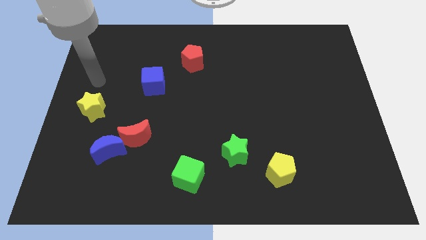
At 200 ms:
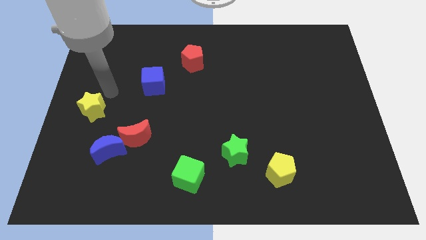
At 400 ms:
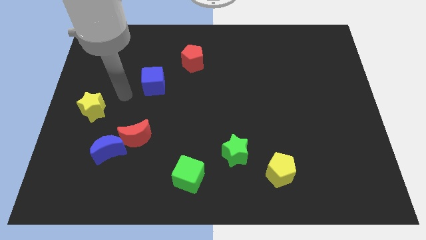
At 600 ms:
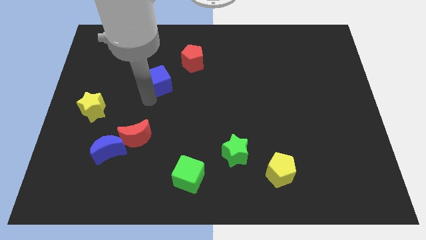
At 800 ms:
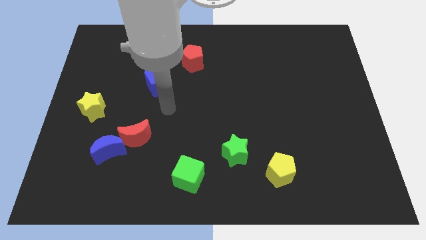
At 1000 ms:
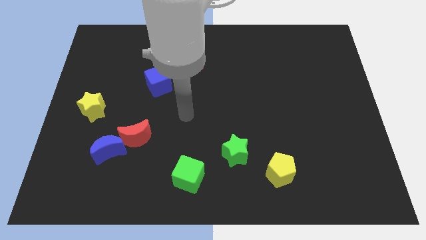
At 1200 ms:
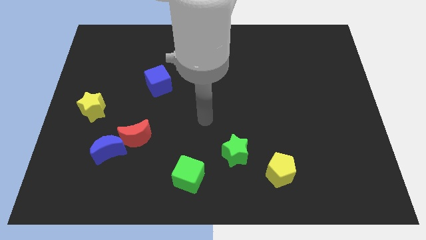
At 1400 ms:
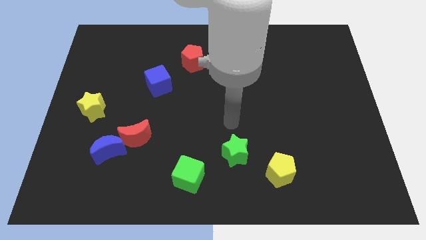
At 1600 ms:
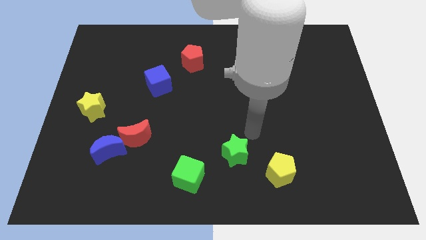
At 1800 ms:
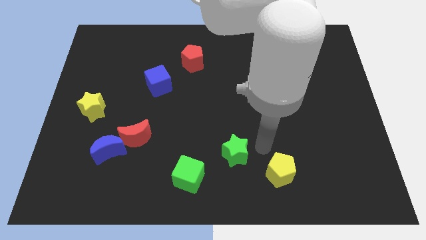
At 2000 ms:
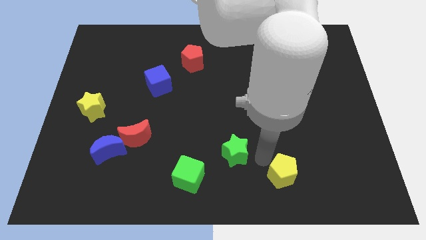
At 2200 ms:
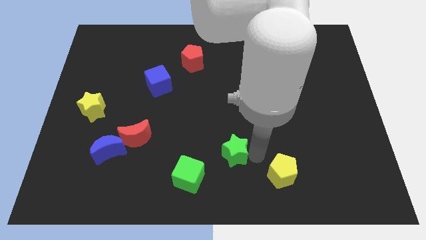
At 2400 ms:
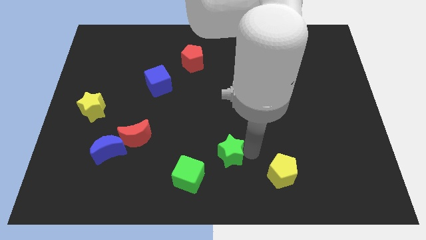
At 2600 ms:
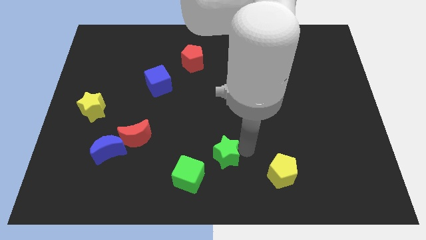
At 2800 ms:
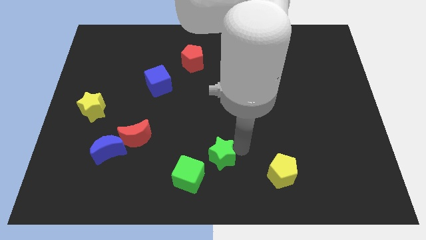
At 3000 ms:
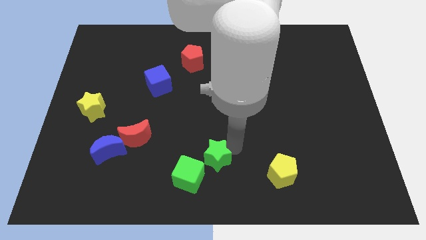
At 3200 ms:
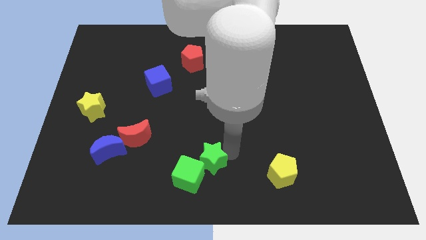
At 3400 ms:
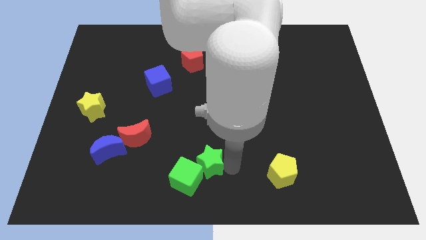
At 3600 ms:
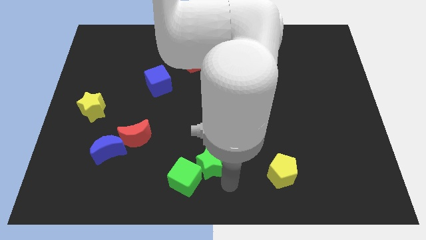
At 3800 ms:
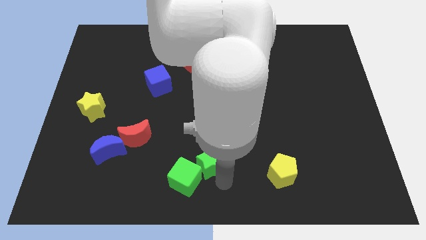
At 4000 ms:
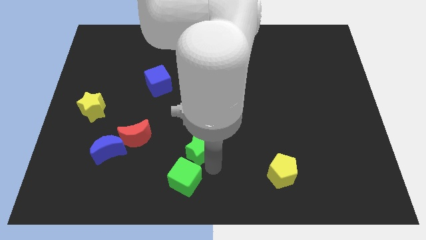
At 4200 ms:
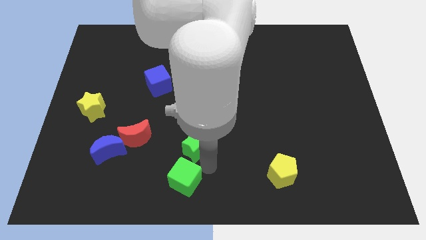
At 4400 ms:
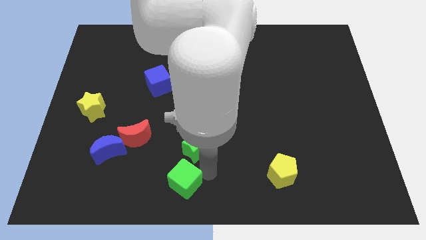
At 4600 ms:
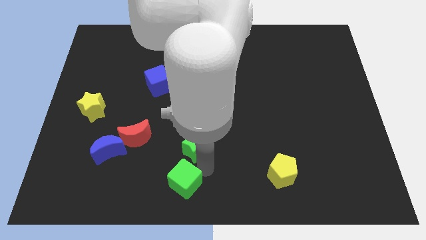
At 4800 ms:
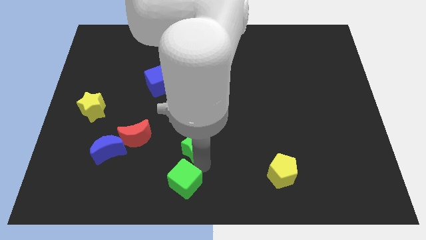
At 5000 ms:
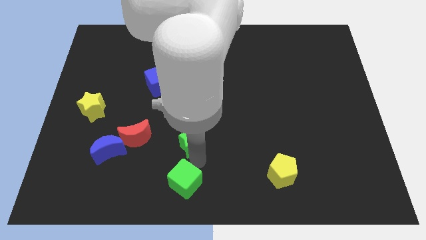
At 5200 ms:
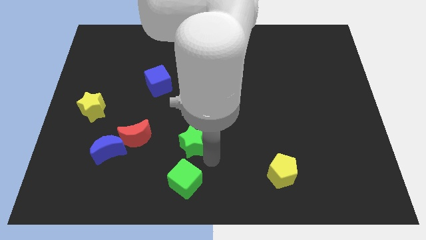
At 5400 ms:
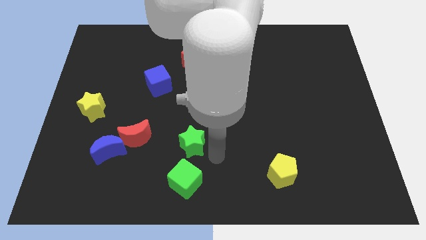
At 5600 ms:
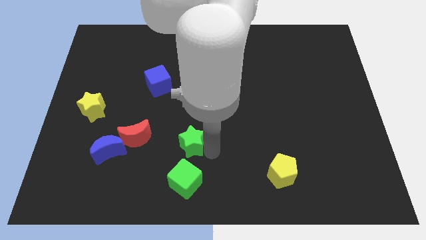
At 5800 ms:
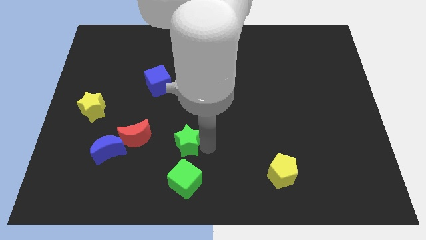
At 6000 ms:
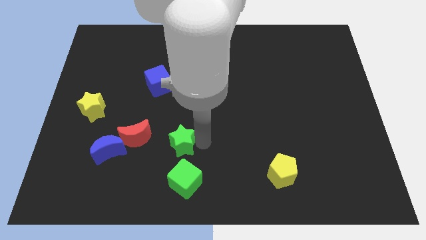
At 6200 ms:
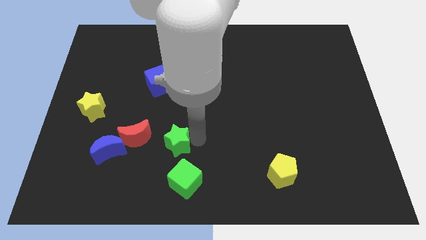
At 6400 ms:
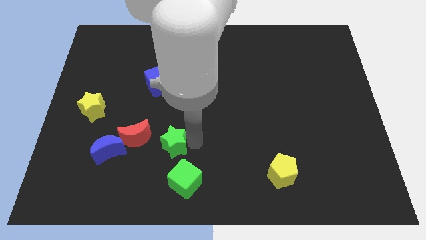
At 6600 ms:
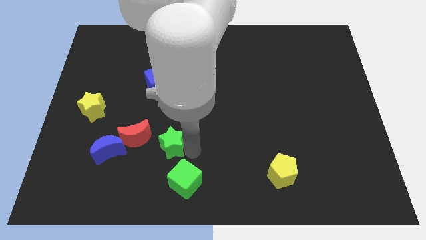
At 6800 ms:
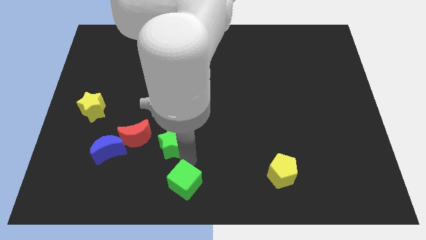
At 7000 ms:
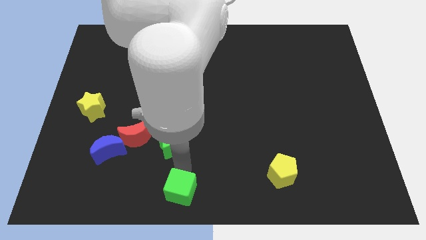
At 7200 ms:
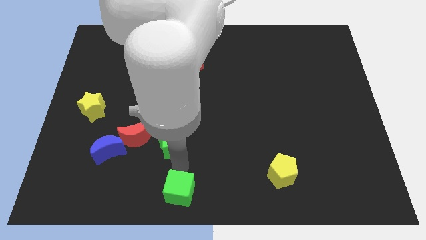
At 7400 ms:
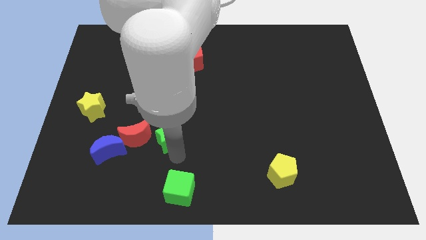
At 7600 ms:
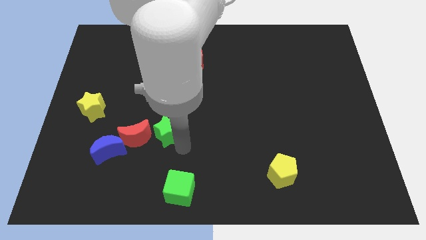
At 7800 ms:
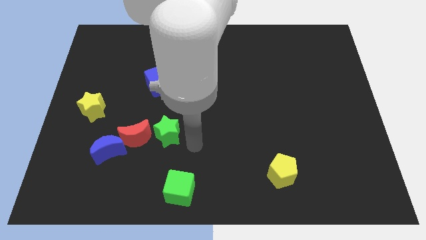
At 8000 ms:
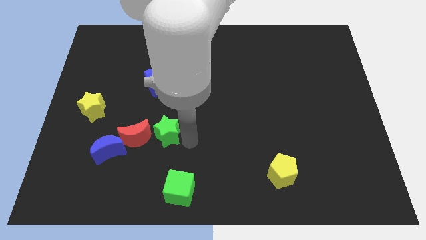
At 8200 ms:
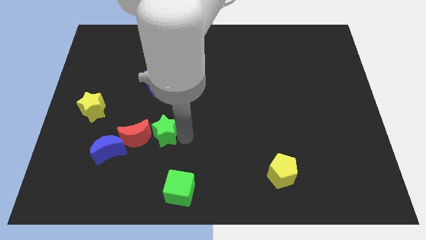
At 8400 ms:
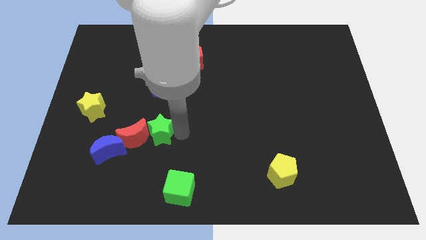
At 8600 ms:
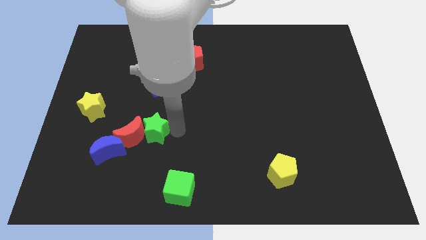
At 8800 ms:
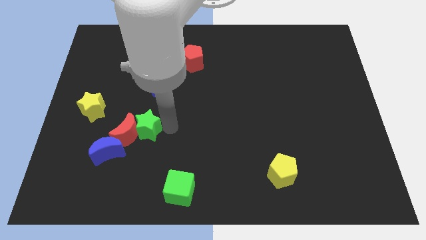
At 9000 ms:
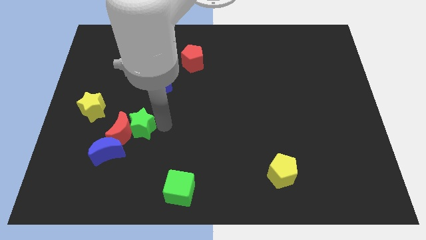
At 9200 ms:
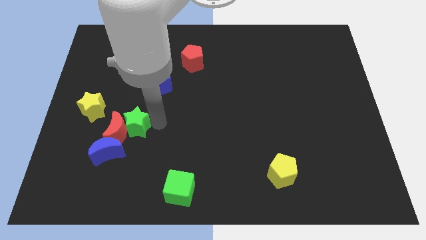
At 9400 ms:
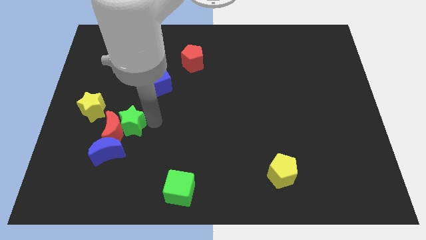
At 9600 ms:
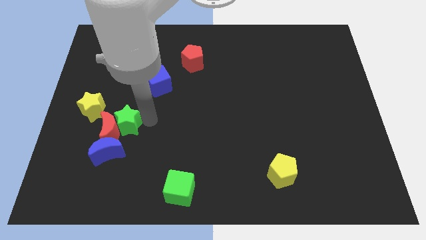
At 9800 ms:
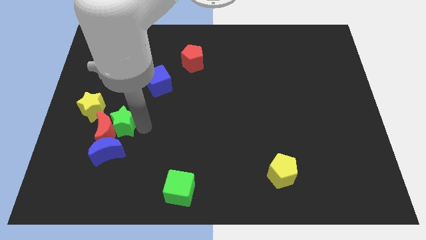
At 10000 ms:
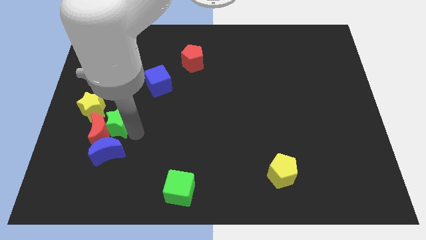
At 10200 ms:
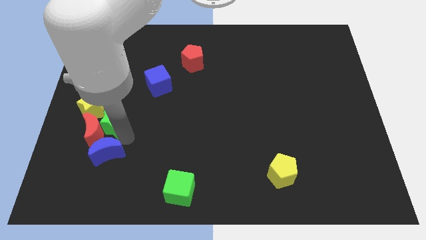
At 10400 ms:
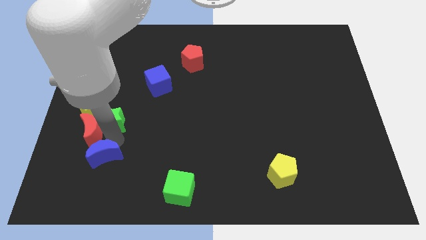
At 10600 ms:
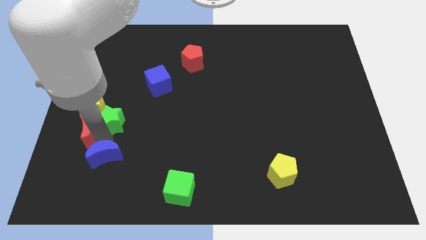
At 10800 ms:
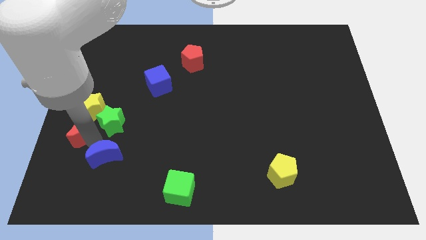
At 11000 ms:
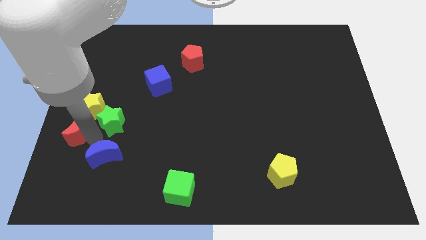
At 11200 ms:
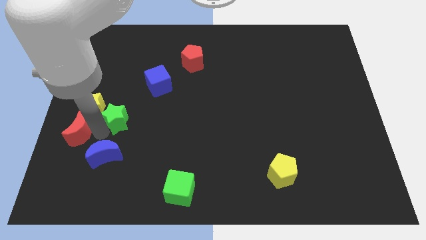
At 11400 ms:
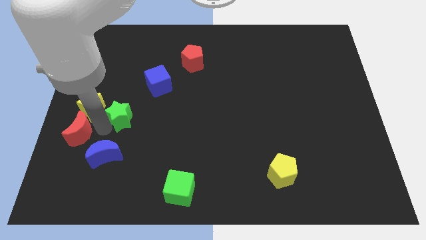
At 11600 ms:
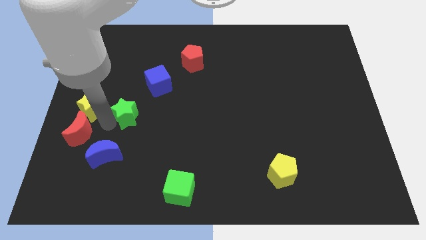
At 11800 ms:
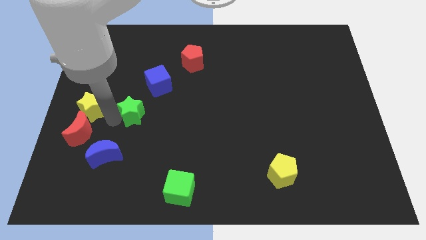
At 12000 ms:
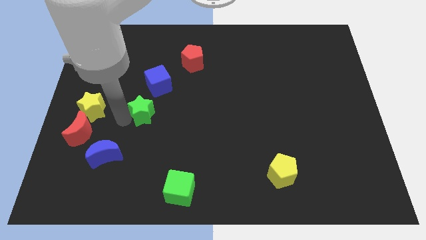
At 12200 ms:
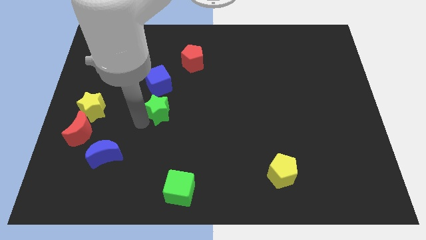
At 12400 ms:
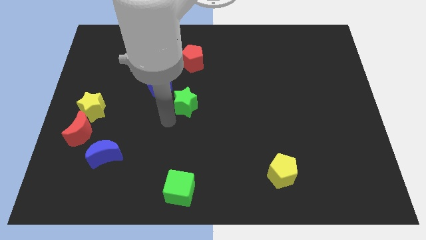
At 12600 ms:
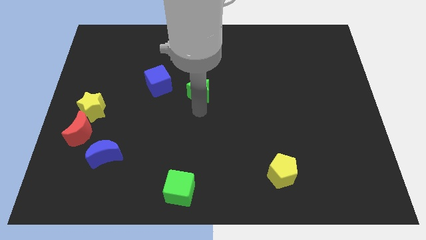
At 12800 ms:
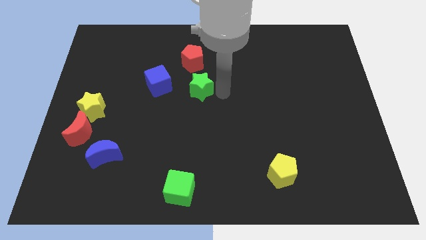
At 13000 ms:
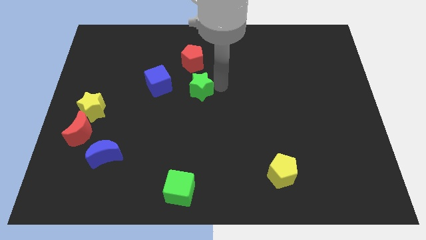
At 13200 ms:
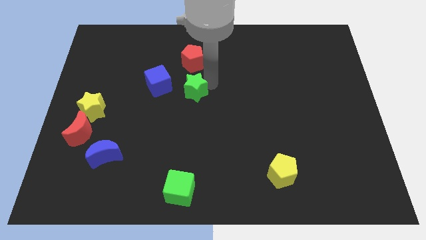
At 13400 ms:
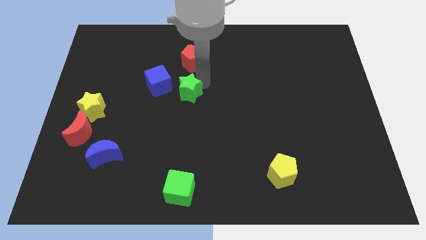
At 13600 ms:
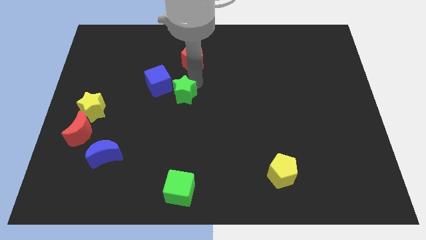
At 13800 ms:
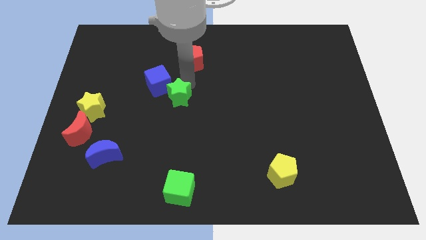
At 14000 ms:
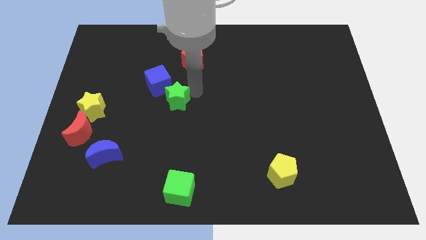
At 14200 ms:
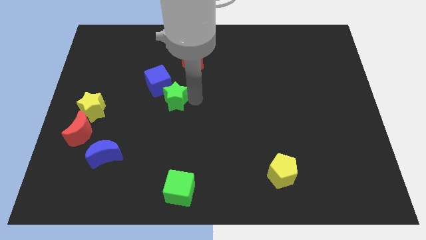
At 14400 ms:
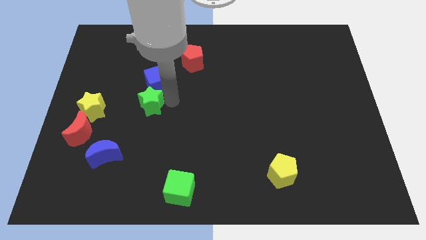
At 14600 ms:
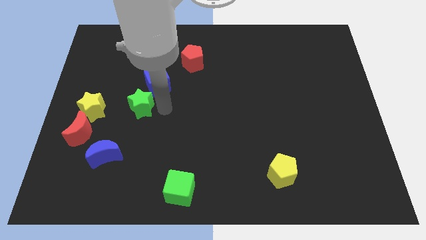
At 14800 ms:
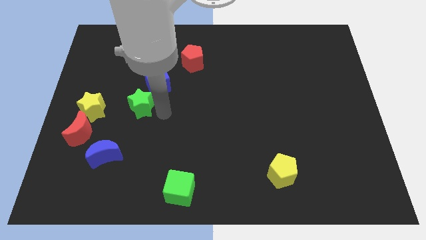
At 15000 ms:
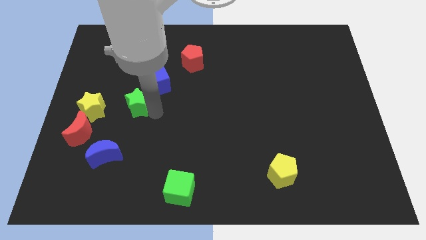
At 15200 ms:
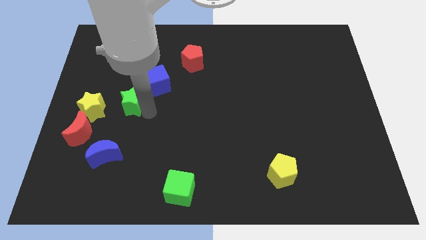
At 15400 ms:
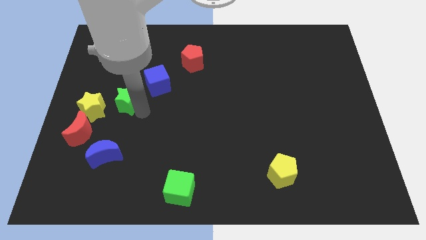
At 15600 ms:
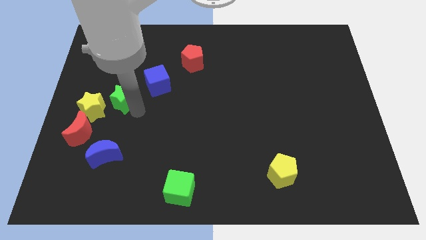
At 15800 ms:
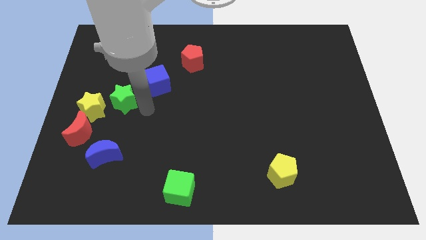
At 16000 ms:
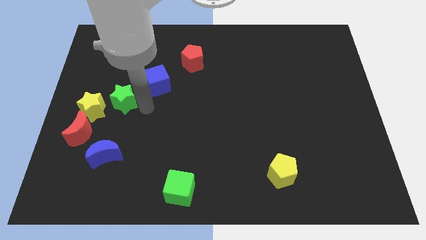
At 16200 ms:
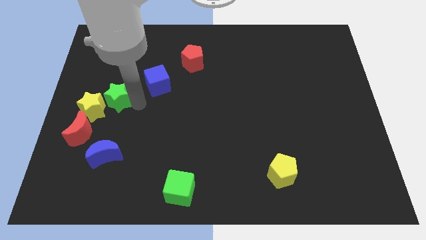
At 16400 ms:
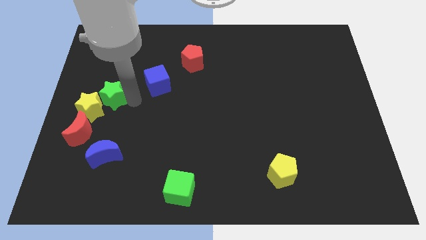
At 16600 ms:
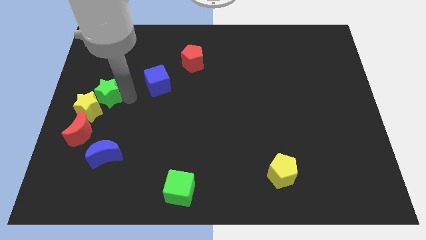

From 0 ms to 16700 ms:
push the green star to the left side
